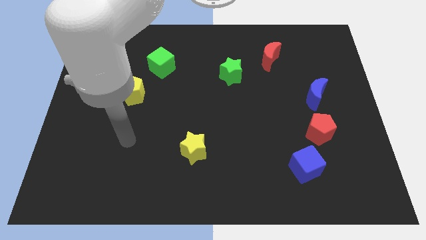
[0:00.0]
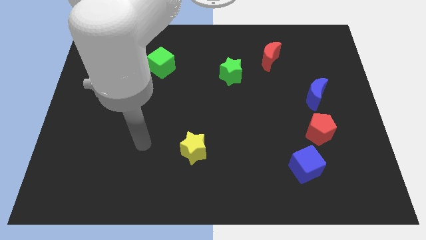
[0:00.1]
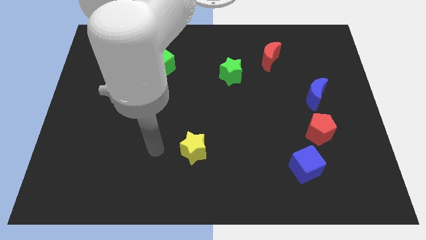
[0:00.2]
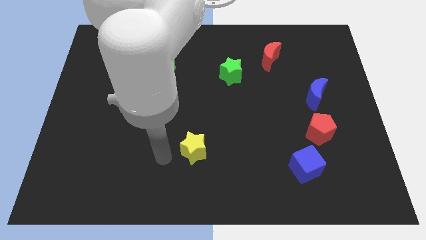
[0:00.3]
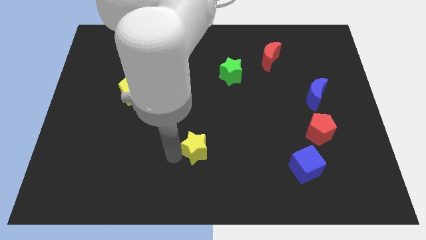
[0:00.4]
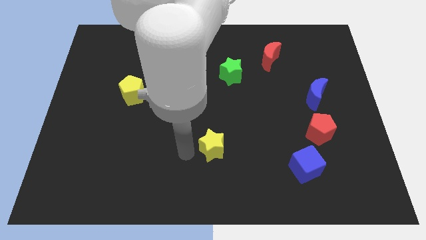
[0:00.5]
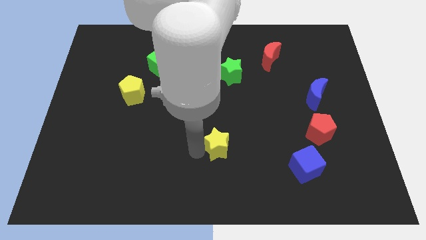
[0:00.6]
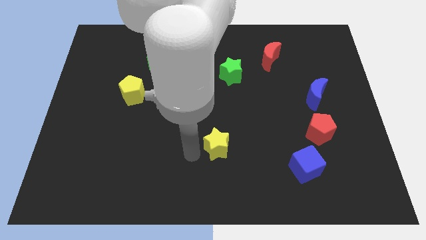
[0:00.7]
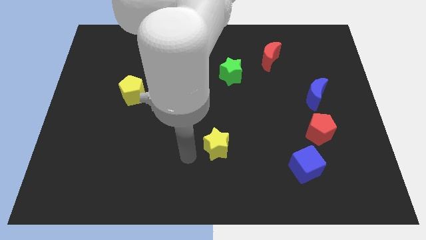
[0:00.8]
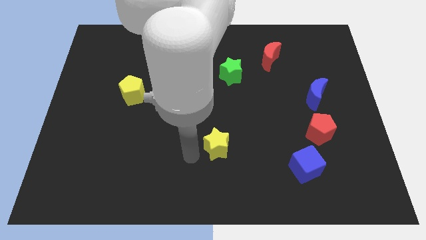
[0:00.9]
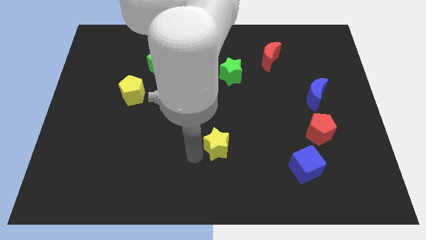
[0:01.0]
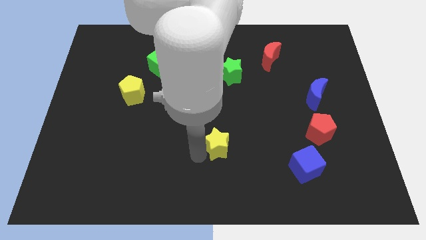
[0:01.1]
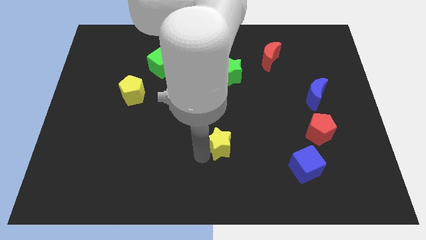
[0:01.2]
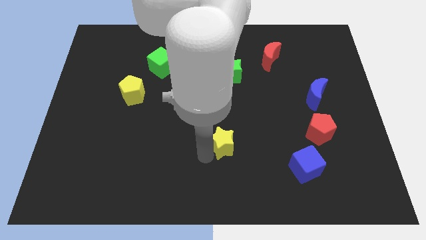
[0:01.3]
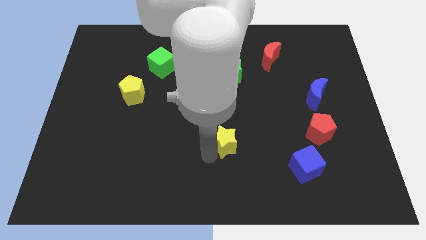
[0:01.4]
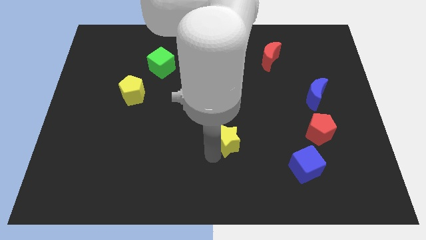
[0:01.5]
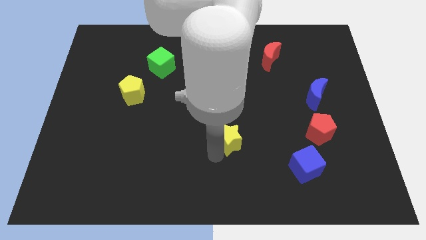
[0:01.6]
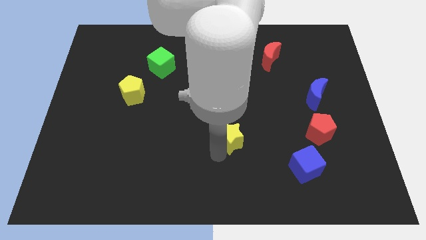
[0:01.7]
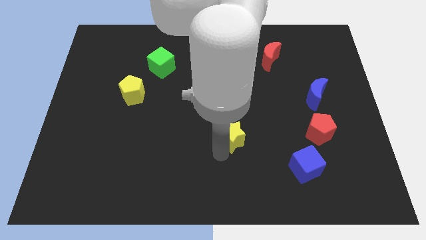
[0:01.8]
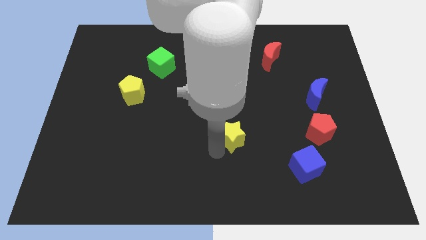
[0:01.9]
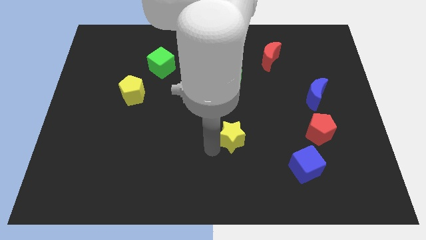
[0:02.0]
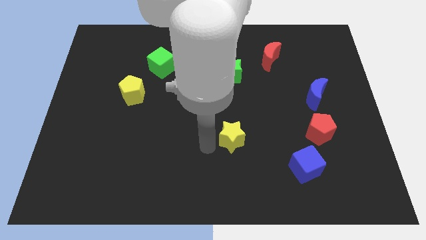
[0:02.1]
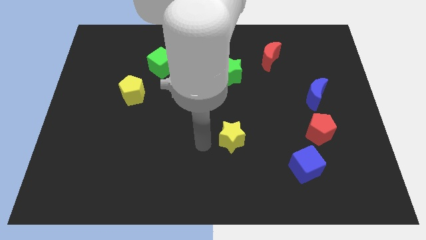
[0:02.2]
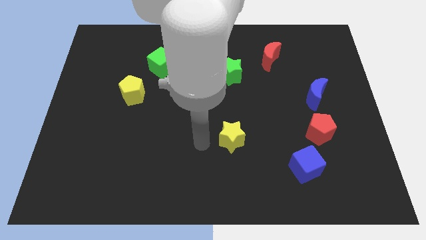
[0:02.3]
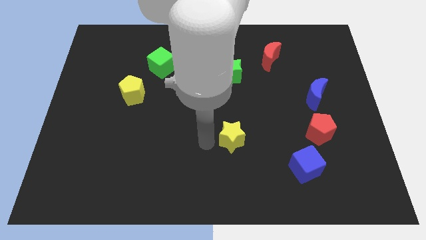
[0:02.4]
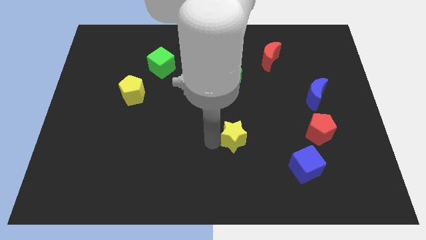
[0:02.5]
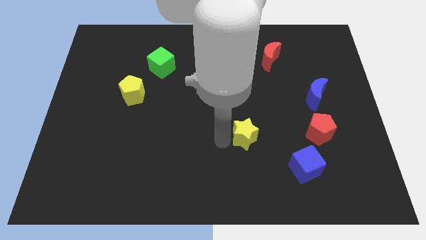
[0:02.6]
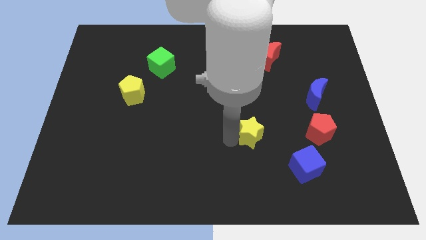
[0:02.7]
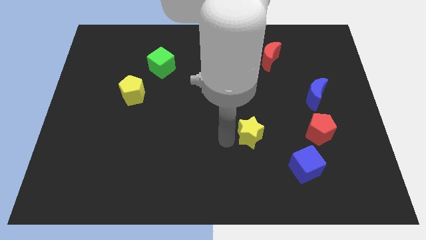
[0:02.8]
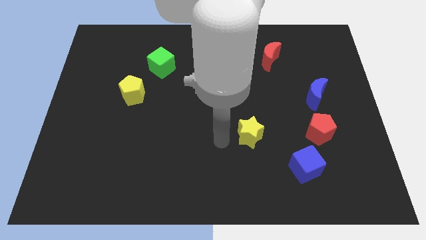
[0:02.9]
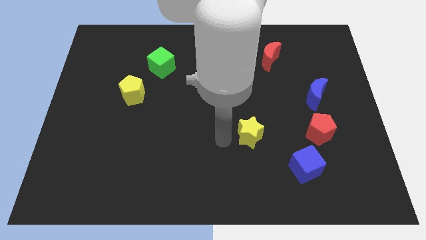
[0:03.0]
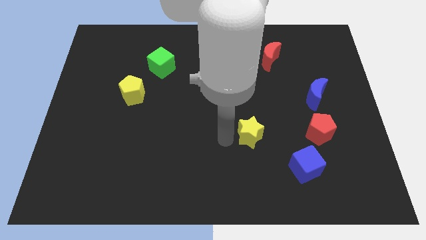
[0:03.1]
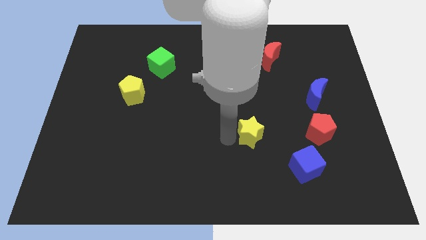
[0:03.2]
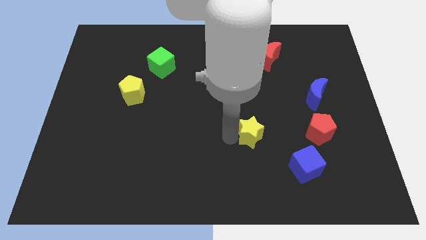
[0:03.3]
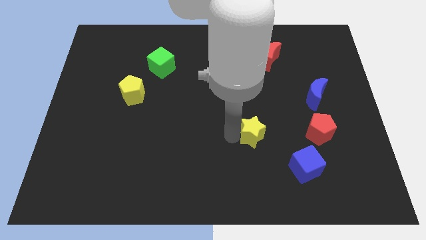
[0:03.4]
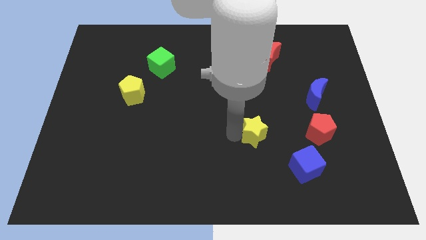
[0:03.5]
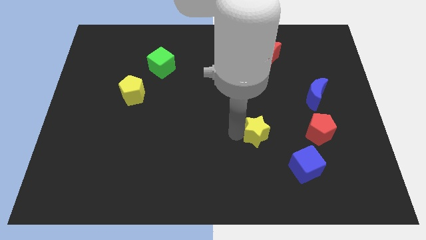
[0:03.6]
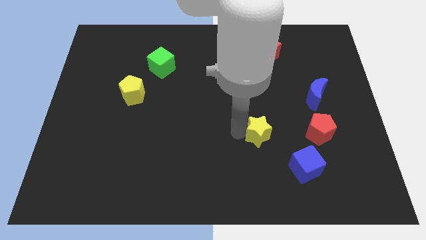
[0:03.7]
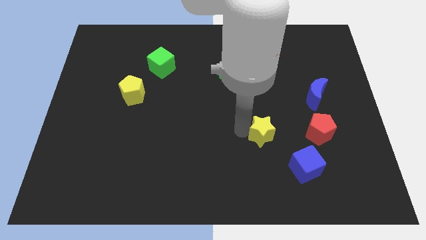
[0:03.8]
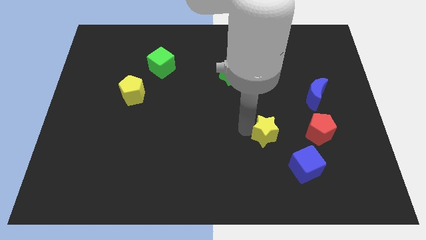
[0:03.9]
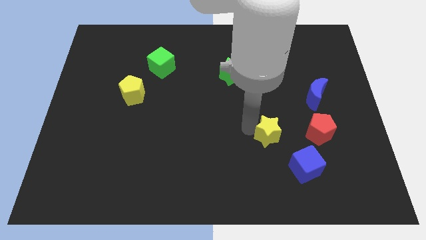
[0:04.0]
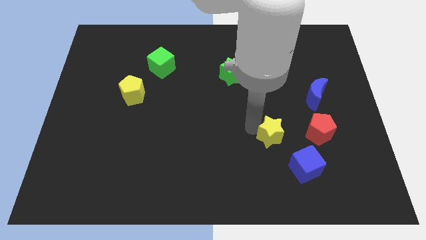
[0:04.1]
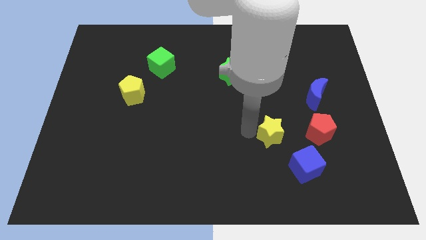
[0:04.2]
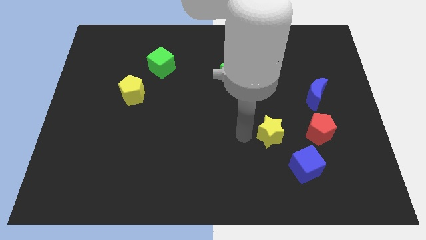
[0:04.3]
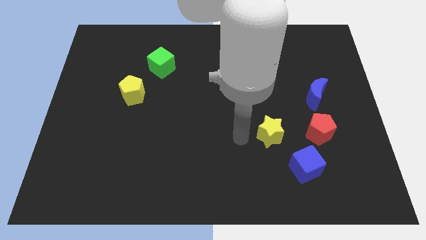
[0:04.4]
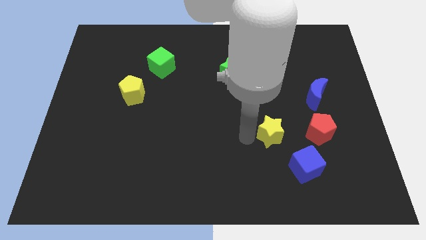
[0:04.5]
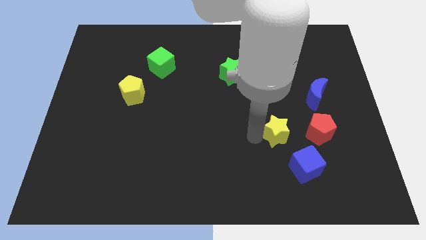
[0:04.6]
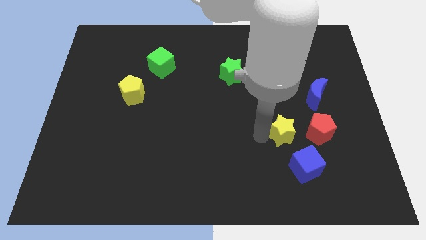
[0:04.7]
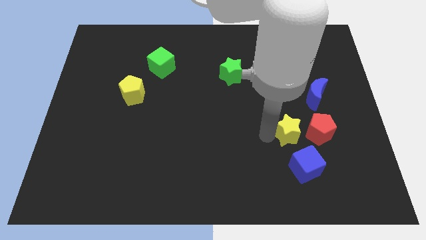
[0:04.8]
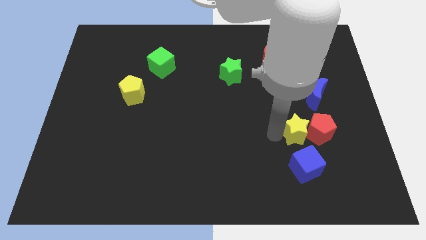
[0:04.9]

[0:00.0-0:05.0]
push the yellow star towards the red pentagon

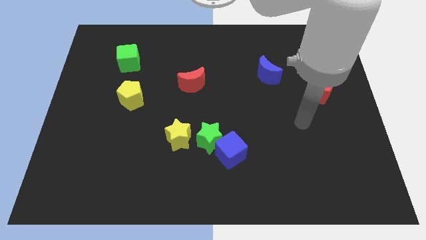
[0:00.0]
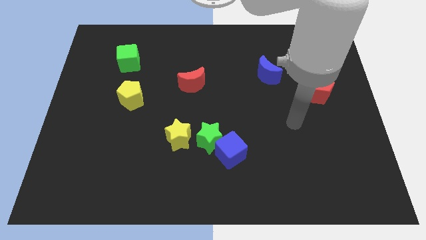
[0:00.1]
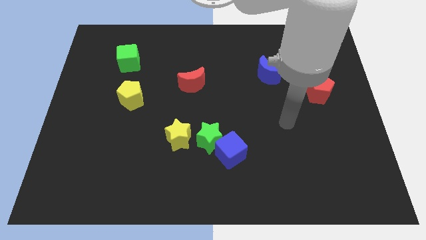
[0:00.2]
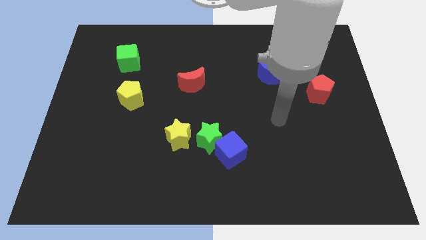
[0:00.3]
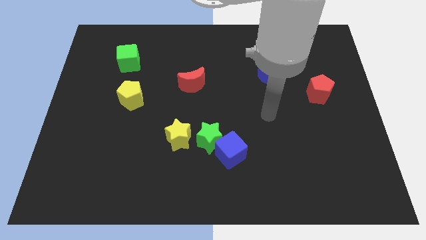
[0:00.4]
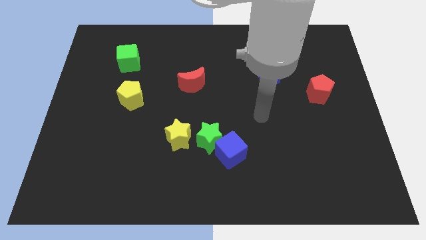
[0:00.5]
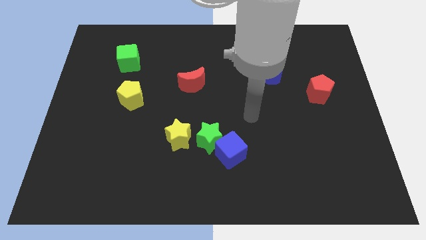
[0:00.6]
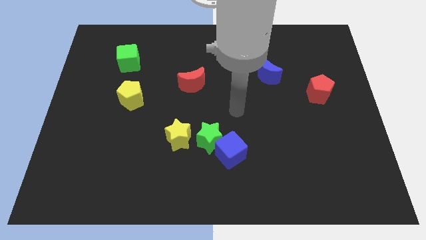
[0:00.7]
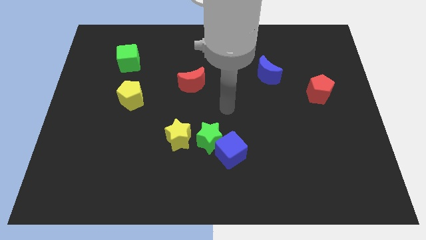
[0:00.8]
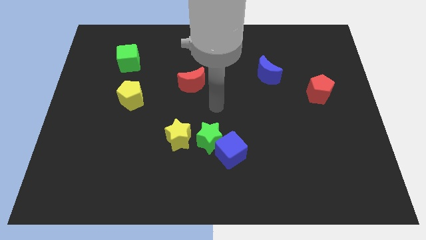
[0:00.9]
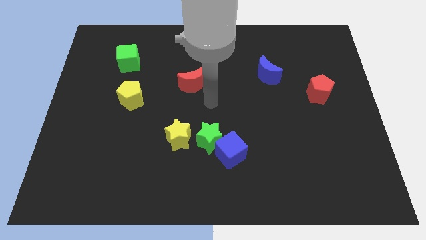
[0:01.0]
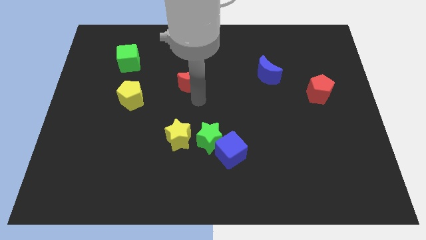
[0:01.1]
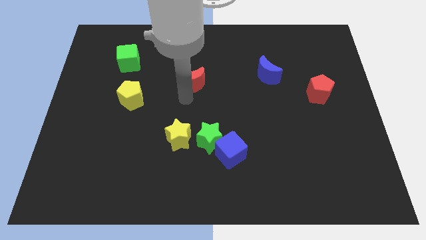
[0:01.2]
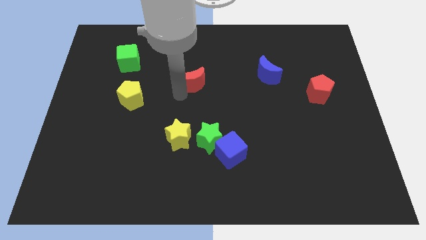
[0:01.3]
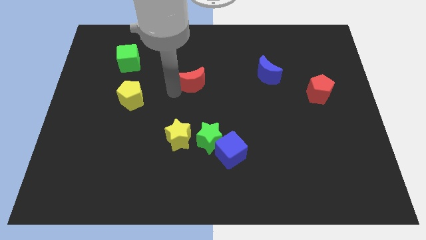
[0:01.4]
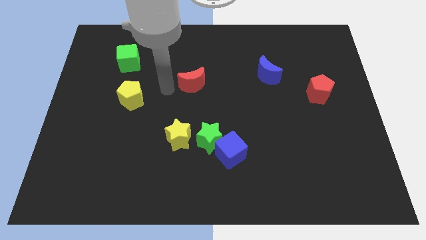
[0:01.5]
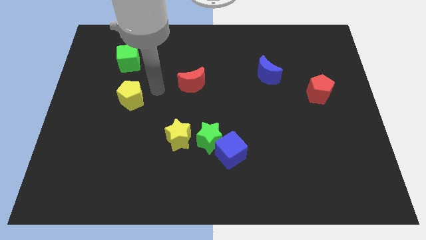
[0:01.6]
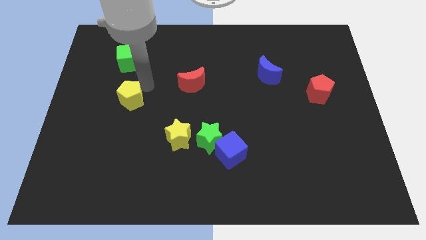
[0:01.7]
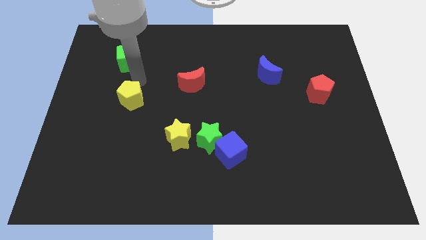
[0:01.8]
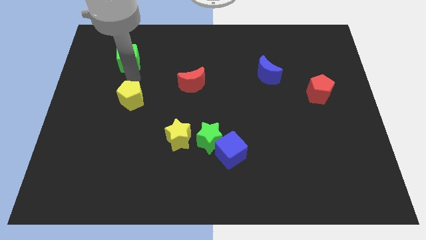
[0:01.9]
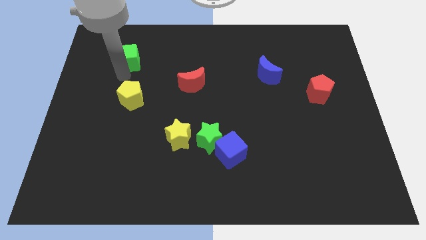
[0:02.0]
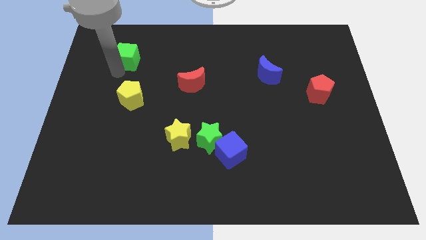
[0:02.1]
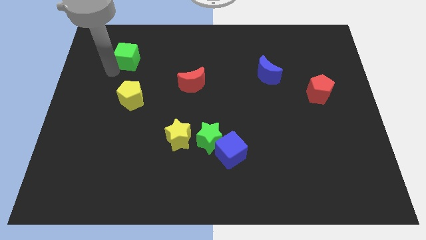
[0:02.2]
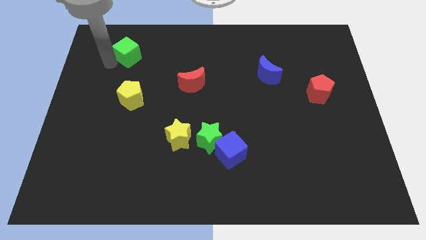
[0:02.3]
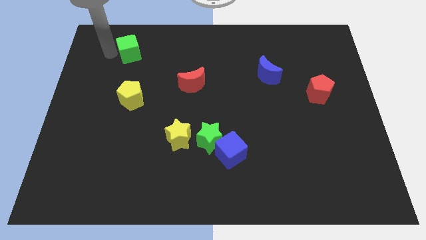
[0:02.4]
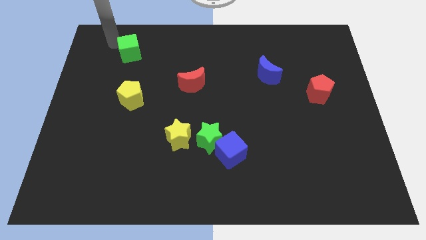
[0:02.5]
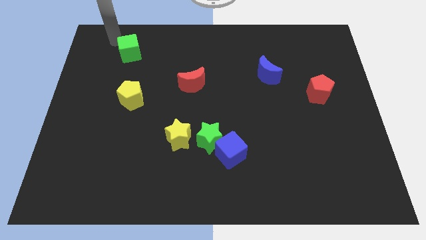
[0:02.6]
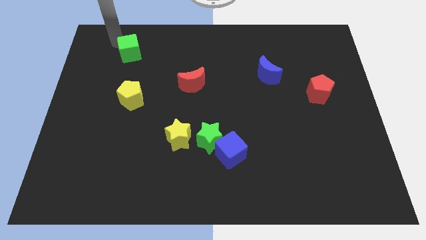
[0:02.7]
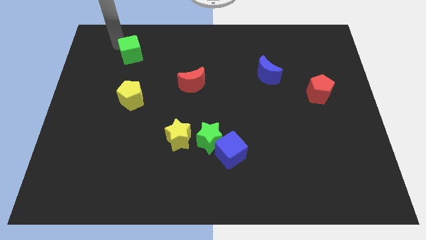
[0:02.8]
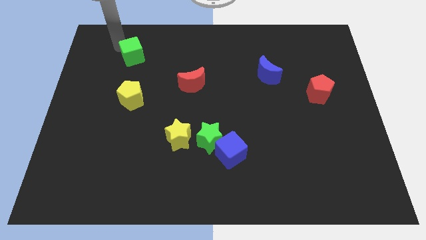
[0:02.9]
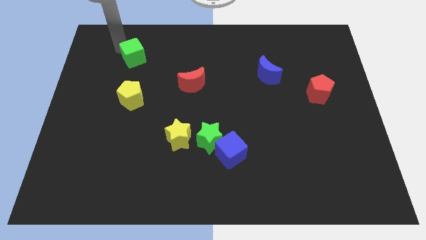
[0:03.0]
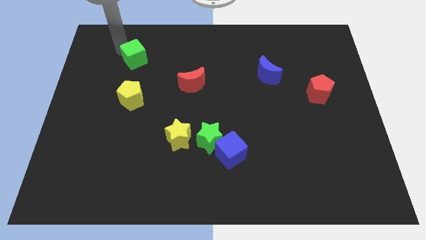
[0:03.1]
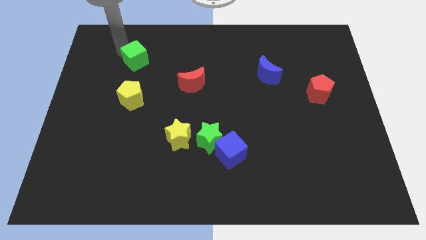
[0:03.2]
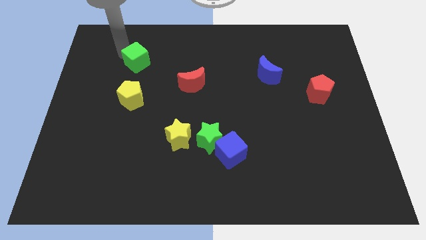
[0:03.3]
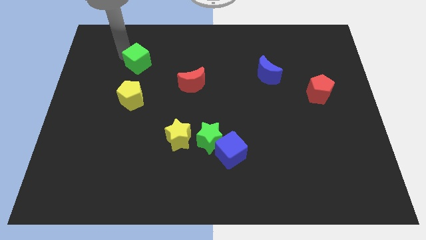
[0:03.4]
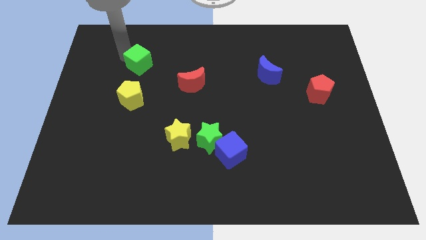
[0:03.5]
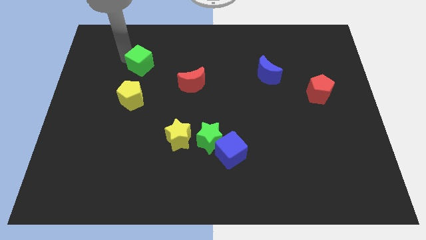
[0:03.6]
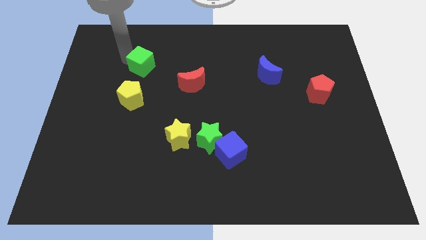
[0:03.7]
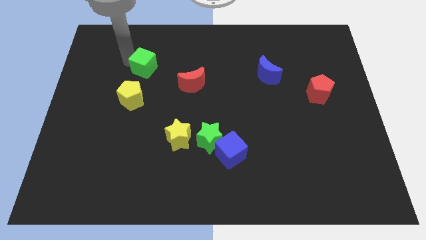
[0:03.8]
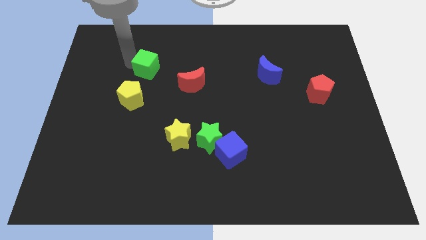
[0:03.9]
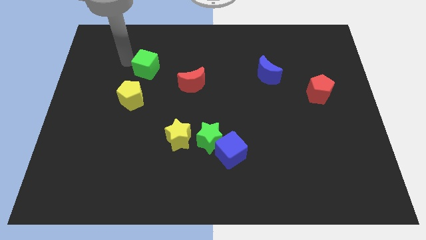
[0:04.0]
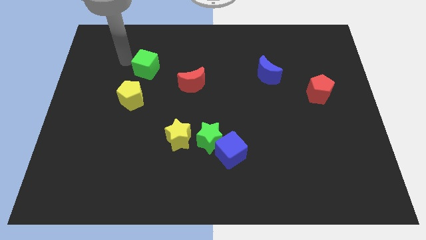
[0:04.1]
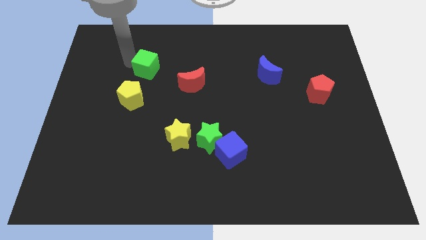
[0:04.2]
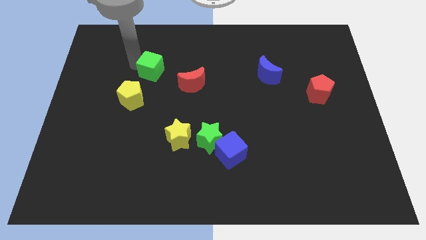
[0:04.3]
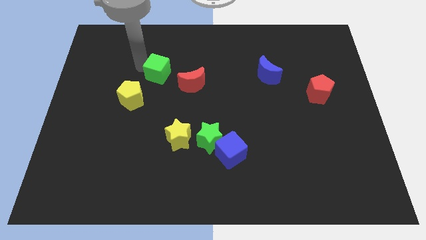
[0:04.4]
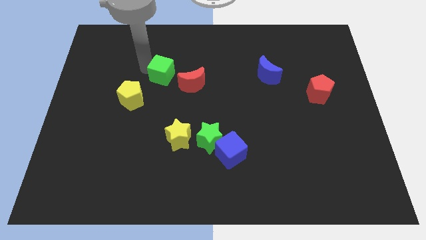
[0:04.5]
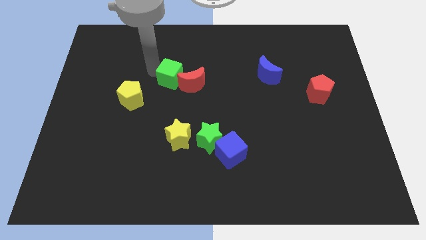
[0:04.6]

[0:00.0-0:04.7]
push the green cube next to the red moon
